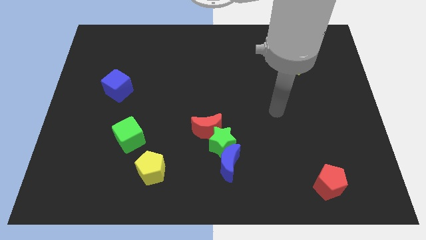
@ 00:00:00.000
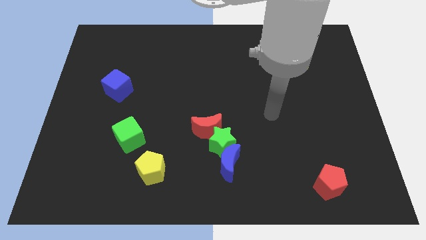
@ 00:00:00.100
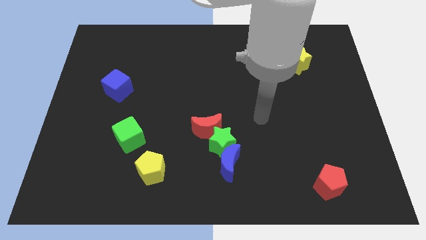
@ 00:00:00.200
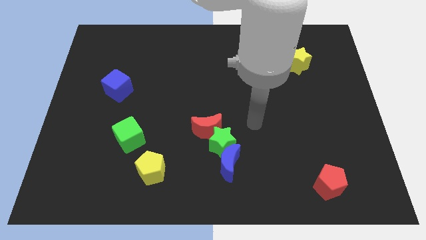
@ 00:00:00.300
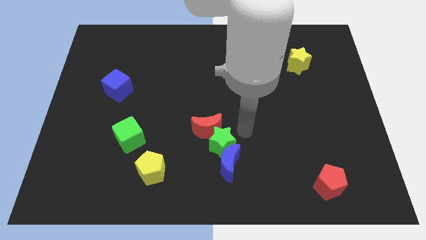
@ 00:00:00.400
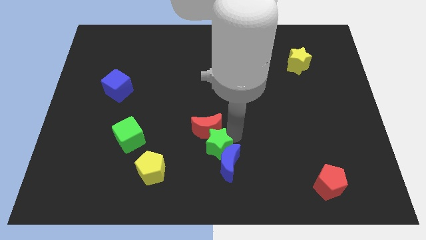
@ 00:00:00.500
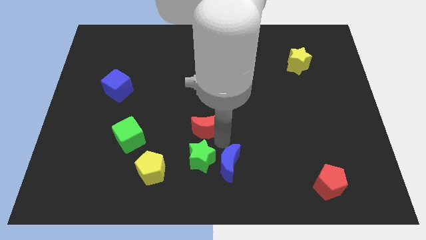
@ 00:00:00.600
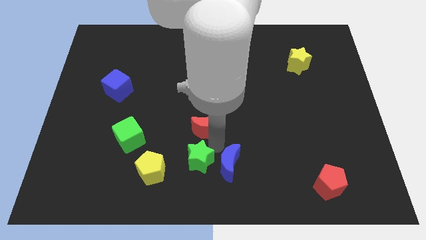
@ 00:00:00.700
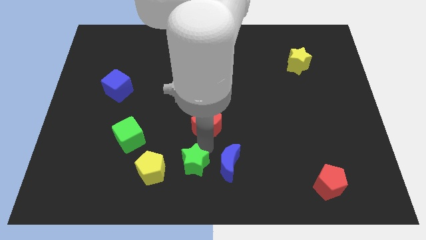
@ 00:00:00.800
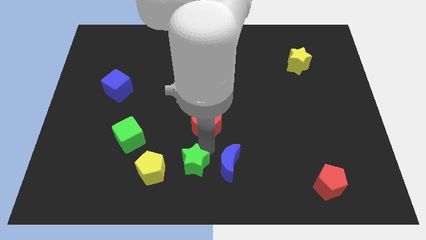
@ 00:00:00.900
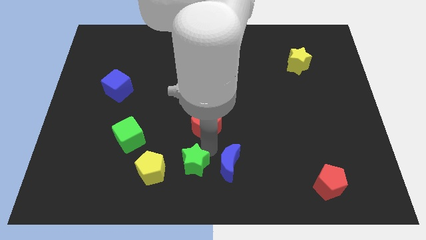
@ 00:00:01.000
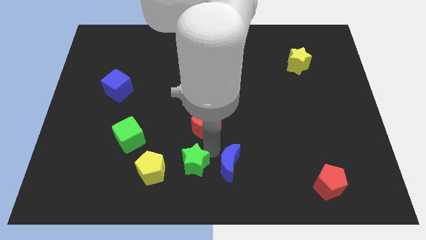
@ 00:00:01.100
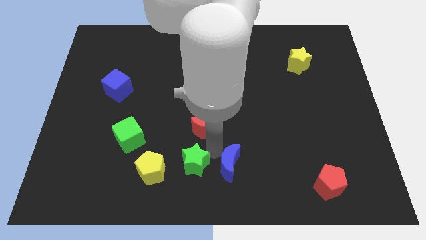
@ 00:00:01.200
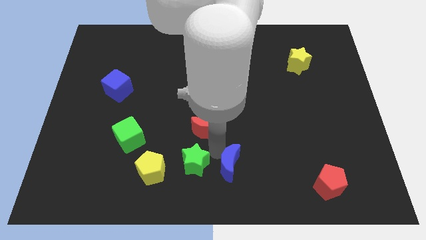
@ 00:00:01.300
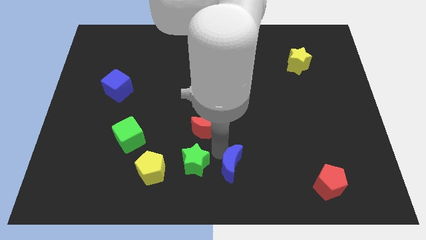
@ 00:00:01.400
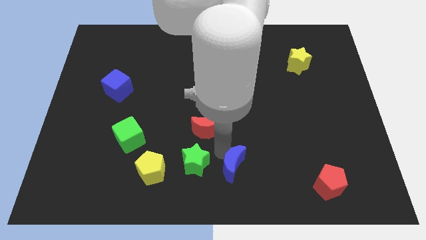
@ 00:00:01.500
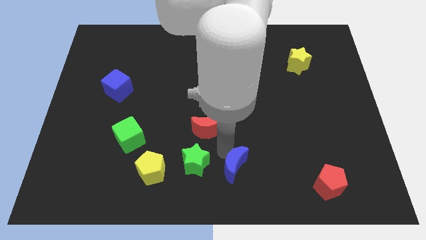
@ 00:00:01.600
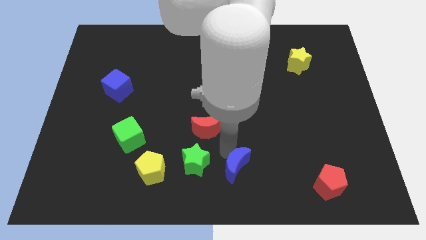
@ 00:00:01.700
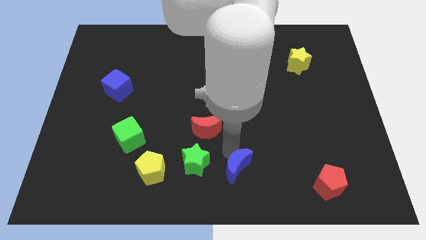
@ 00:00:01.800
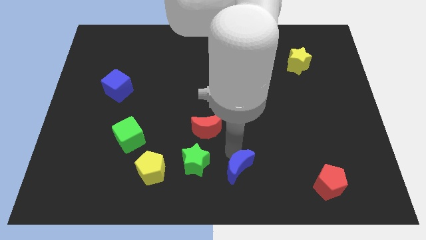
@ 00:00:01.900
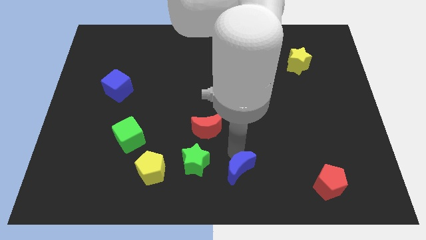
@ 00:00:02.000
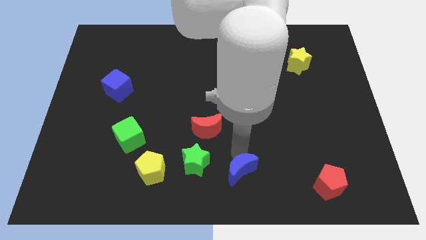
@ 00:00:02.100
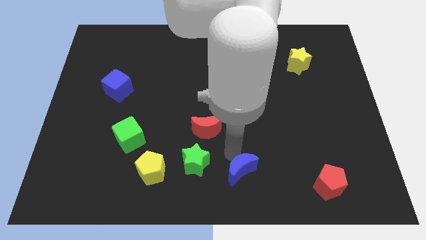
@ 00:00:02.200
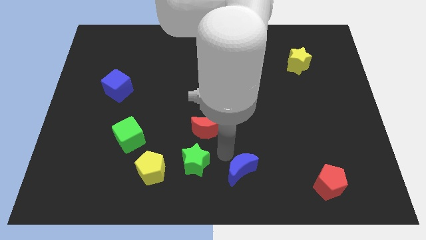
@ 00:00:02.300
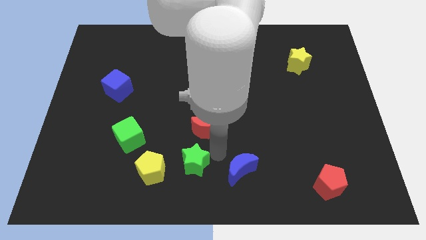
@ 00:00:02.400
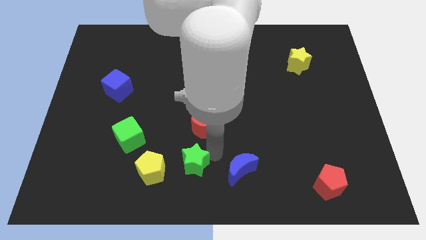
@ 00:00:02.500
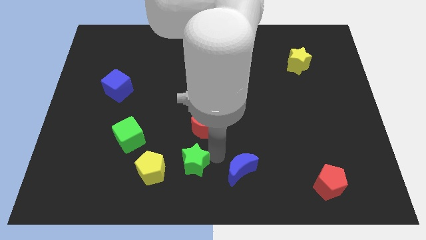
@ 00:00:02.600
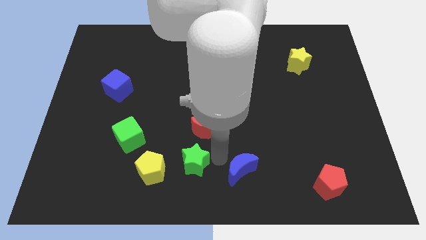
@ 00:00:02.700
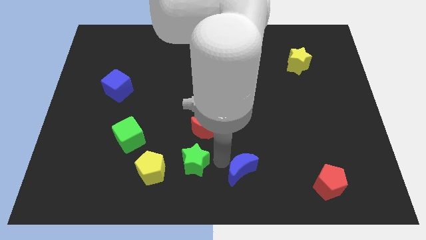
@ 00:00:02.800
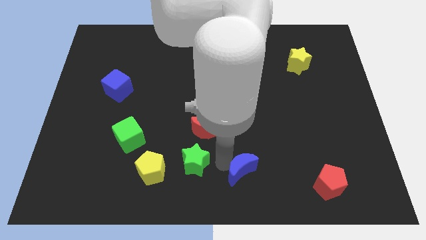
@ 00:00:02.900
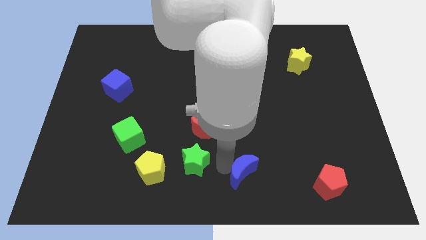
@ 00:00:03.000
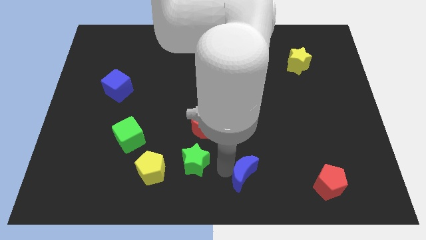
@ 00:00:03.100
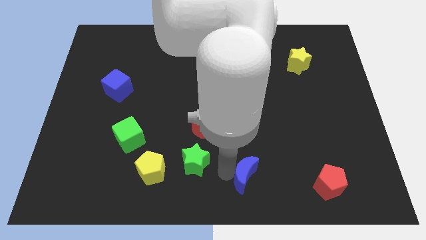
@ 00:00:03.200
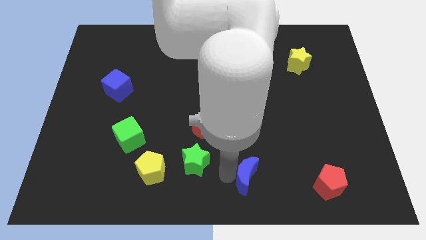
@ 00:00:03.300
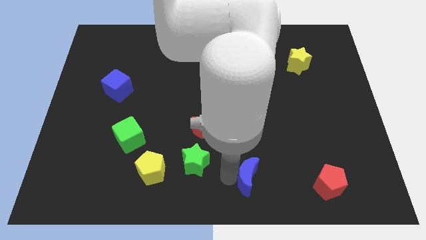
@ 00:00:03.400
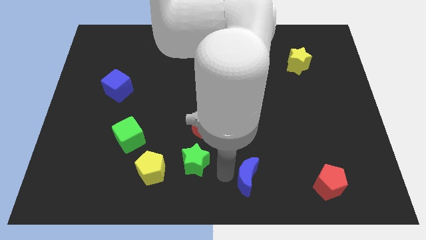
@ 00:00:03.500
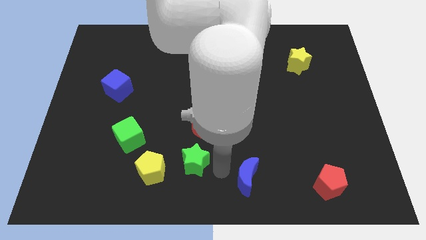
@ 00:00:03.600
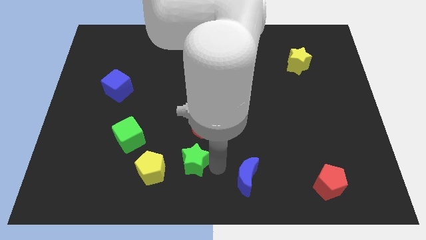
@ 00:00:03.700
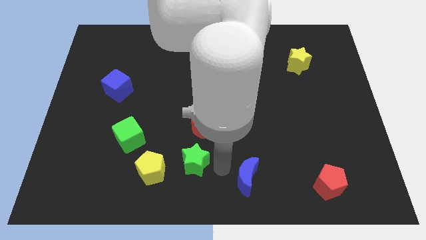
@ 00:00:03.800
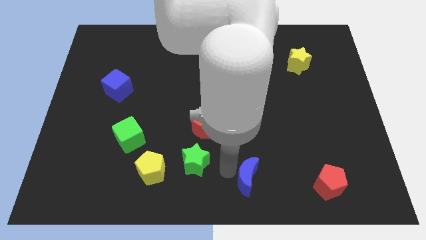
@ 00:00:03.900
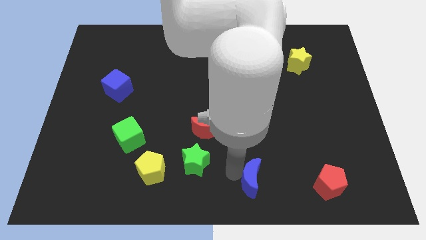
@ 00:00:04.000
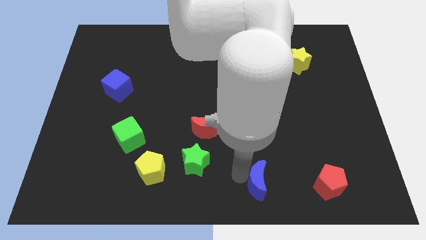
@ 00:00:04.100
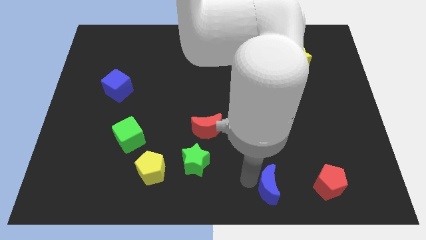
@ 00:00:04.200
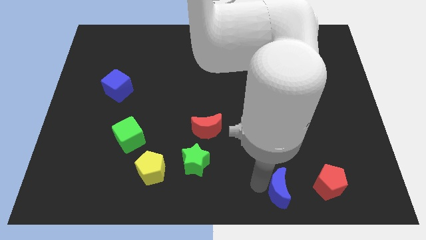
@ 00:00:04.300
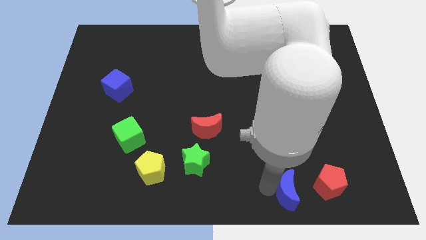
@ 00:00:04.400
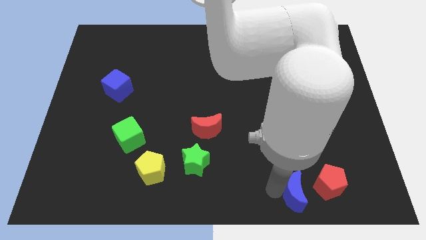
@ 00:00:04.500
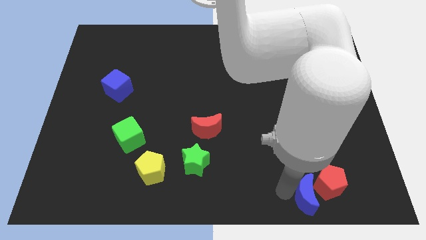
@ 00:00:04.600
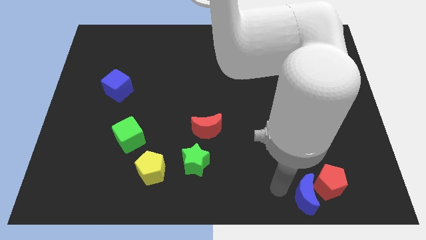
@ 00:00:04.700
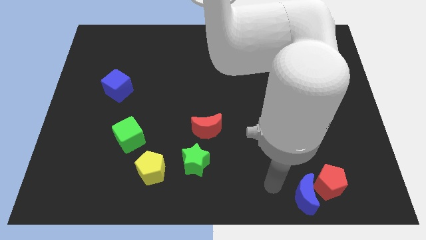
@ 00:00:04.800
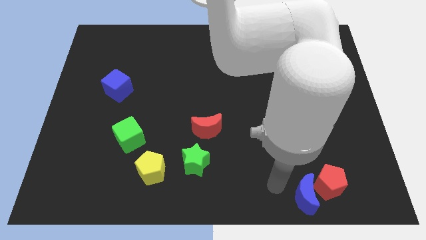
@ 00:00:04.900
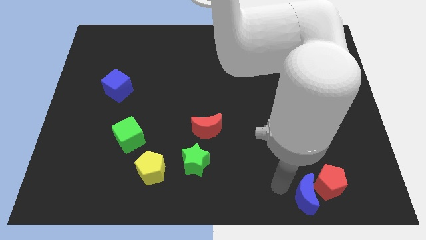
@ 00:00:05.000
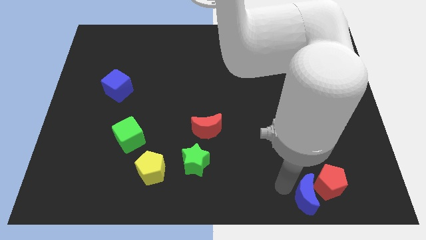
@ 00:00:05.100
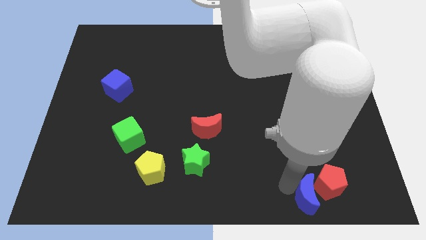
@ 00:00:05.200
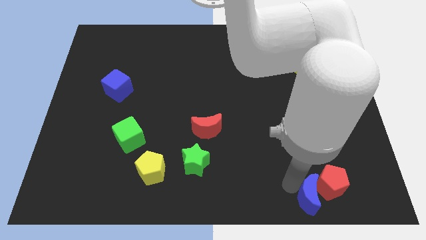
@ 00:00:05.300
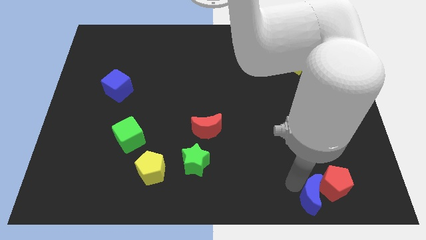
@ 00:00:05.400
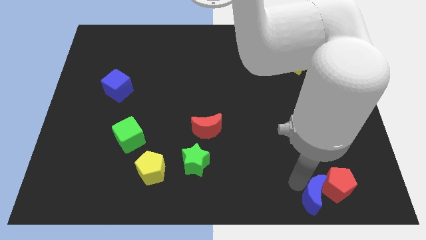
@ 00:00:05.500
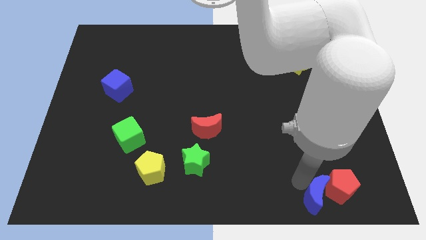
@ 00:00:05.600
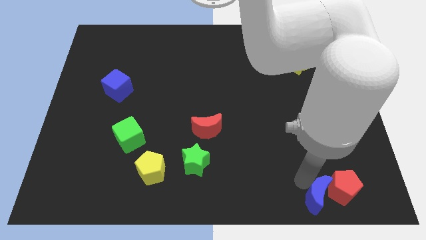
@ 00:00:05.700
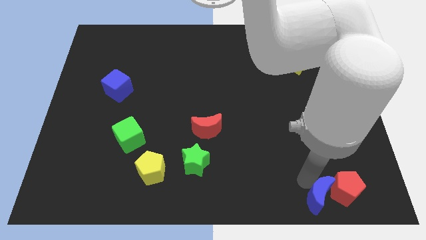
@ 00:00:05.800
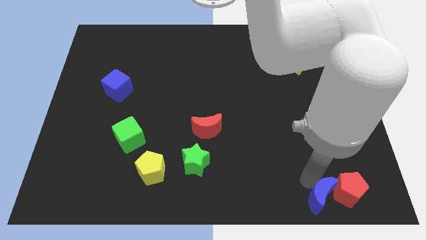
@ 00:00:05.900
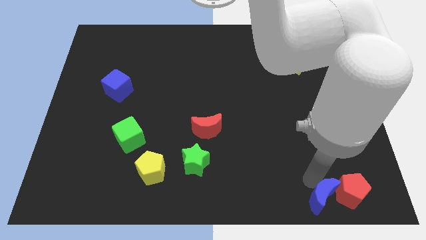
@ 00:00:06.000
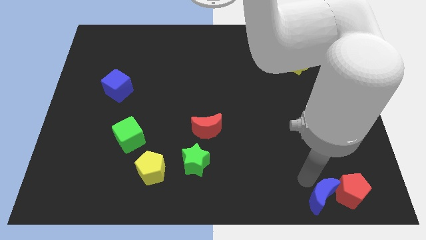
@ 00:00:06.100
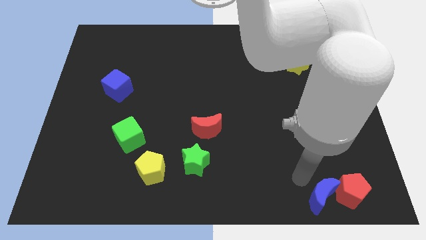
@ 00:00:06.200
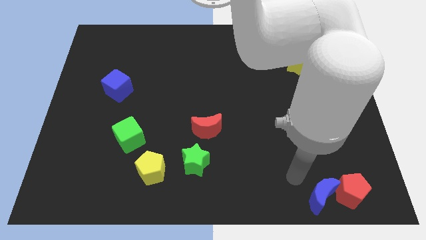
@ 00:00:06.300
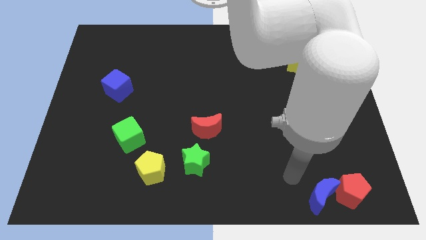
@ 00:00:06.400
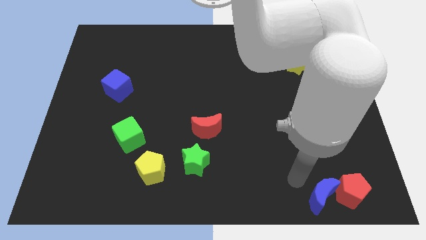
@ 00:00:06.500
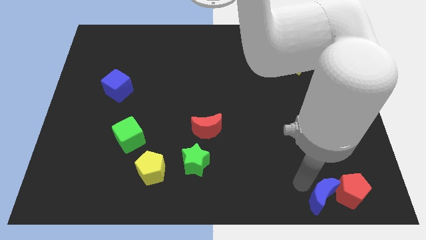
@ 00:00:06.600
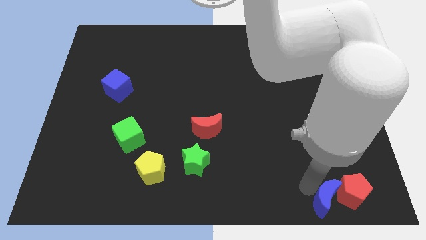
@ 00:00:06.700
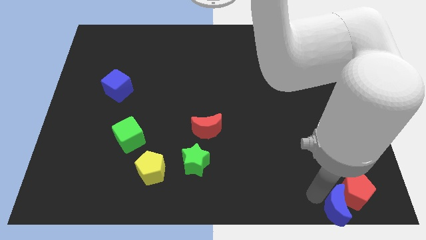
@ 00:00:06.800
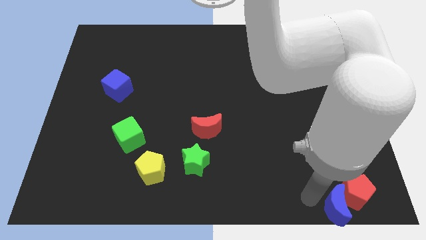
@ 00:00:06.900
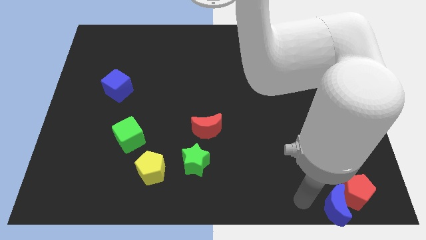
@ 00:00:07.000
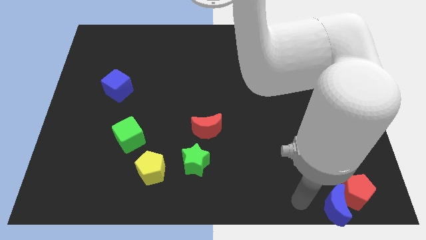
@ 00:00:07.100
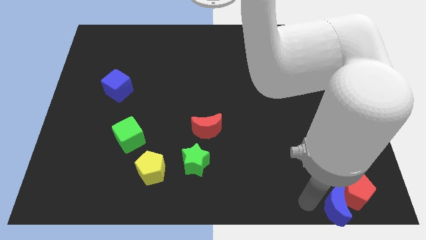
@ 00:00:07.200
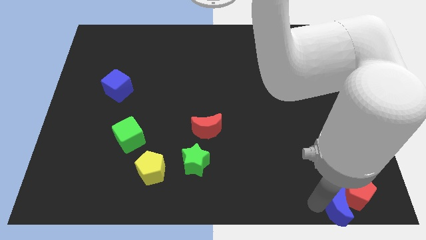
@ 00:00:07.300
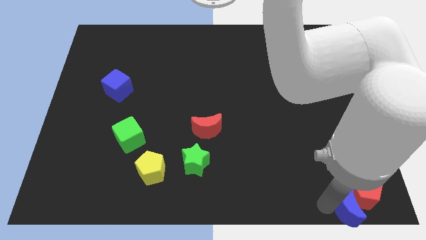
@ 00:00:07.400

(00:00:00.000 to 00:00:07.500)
move the blue moon to the bottom right corner
